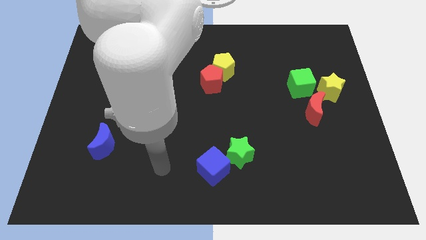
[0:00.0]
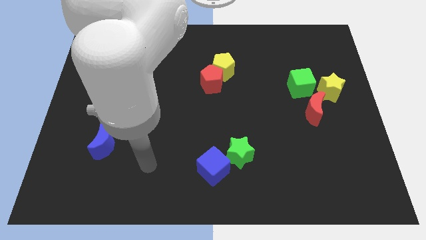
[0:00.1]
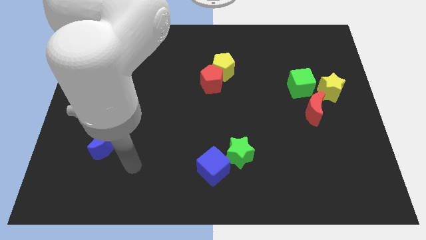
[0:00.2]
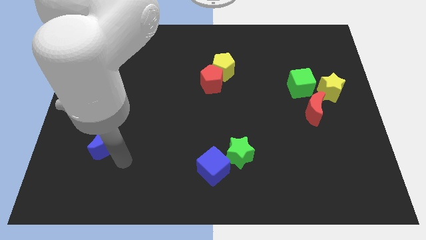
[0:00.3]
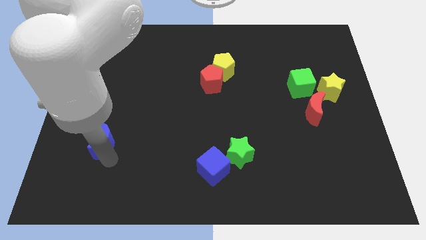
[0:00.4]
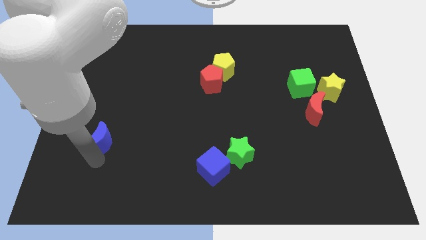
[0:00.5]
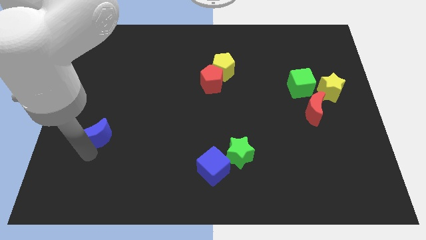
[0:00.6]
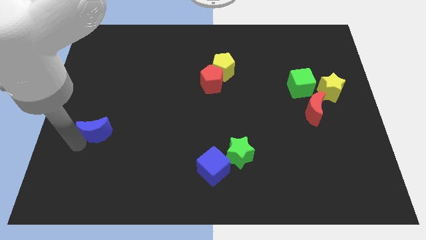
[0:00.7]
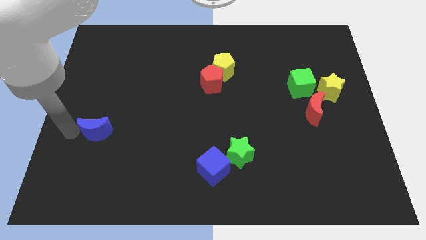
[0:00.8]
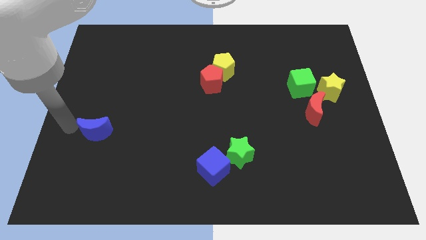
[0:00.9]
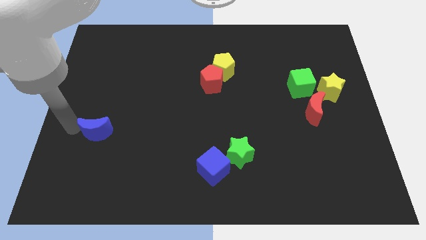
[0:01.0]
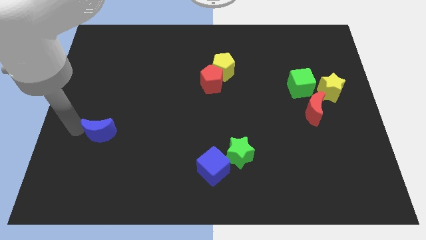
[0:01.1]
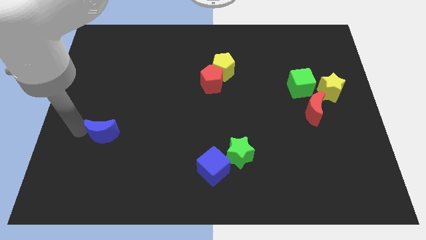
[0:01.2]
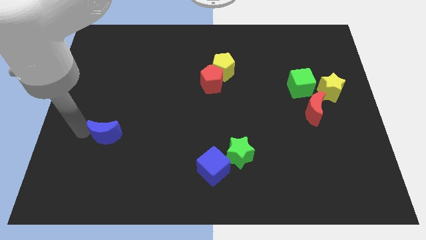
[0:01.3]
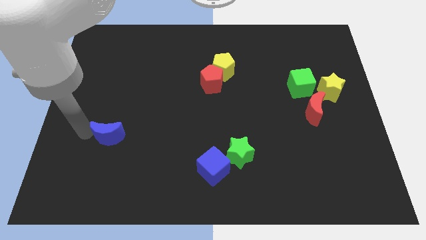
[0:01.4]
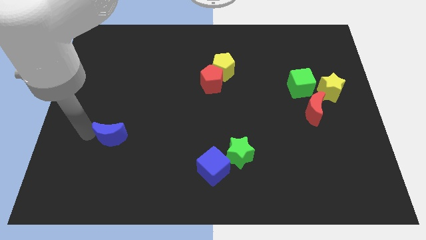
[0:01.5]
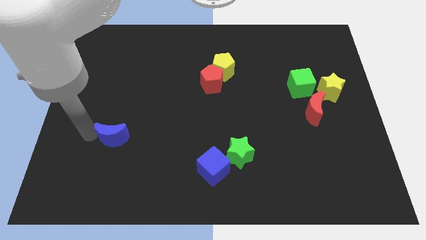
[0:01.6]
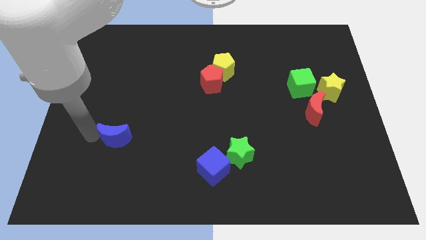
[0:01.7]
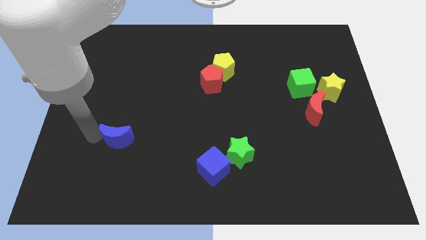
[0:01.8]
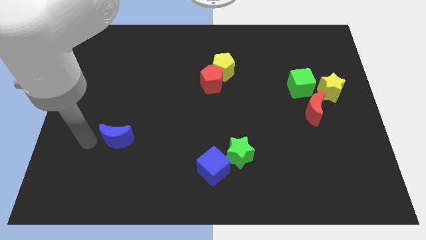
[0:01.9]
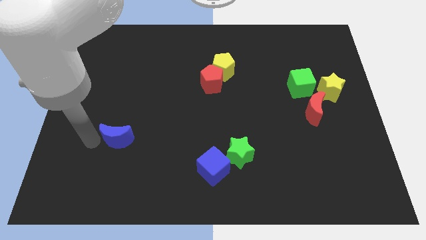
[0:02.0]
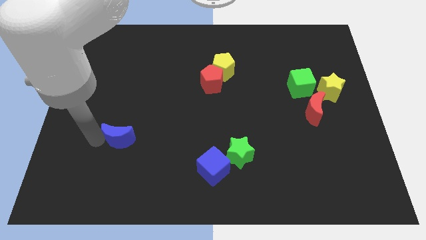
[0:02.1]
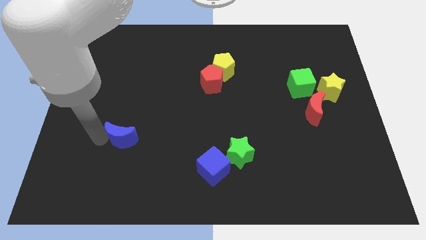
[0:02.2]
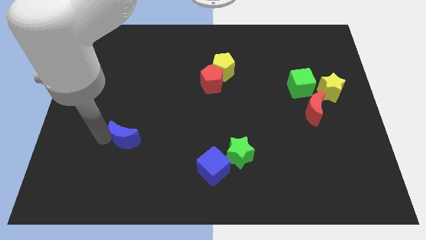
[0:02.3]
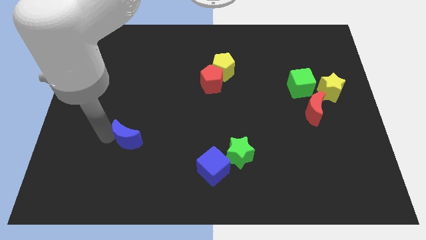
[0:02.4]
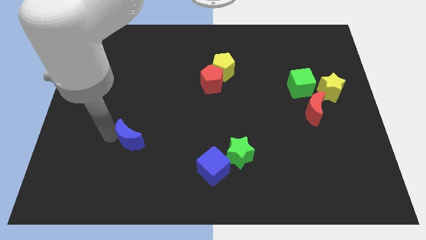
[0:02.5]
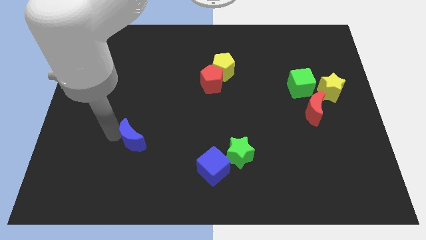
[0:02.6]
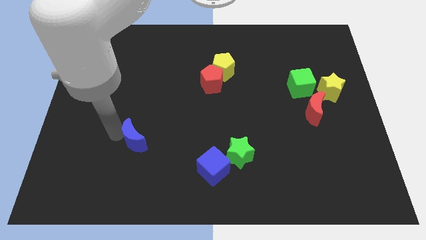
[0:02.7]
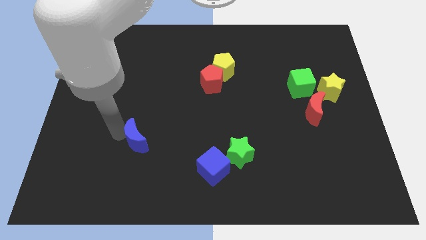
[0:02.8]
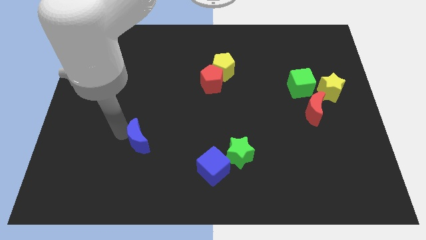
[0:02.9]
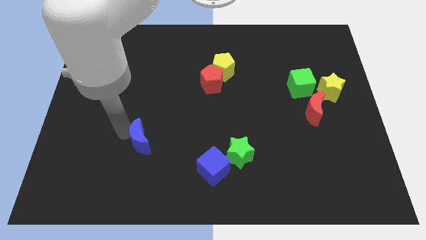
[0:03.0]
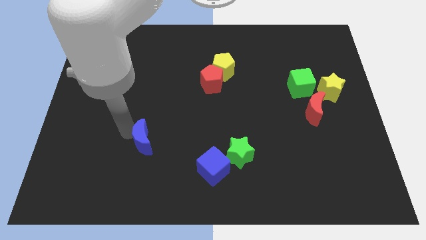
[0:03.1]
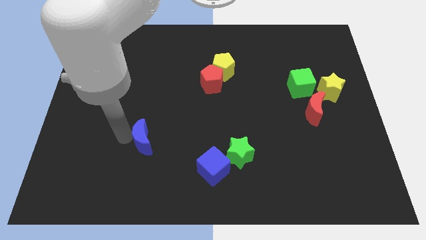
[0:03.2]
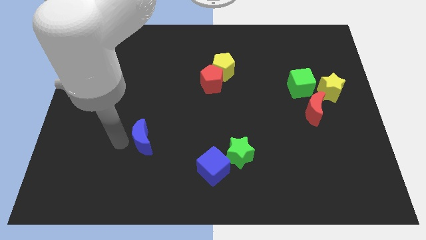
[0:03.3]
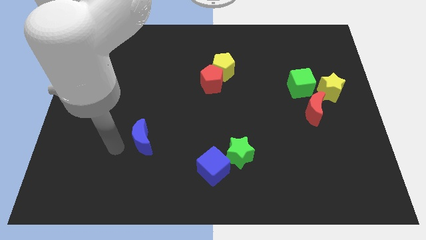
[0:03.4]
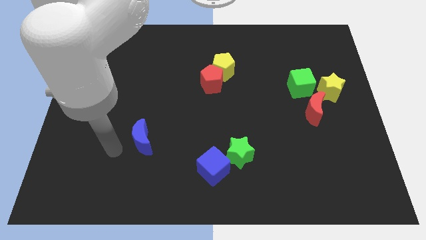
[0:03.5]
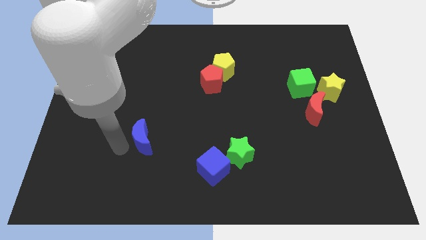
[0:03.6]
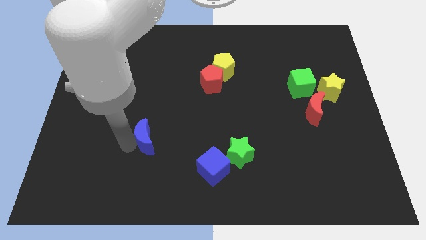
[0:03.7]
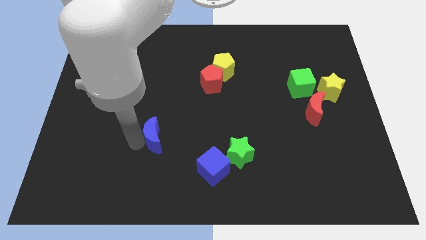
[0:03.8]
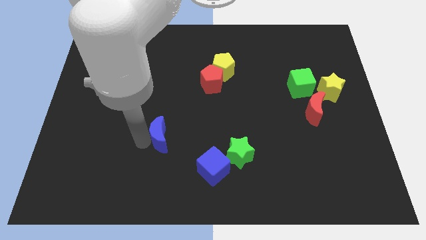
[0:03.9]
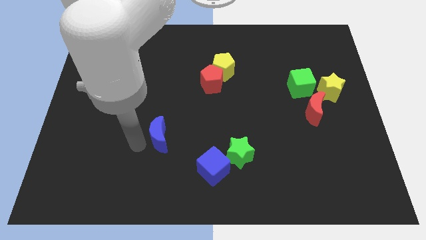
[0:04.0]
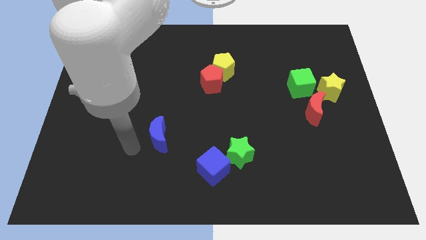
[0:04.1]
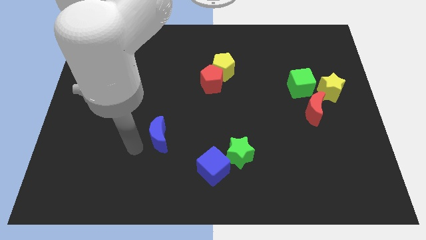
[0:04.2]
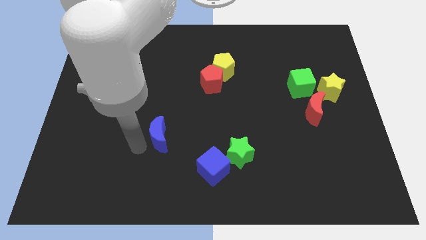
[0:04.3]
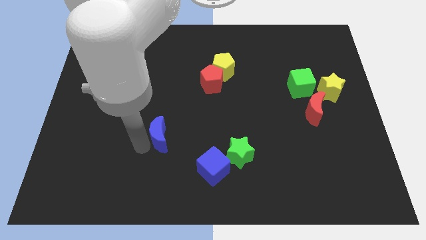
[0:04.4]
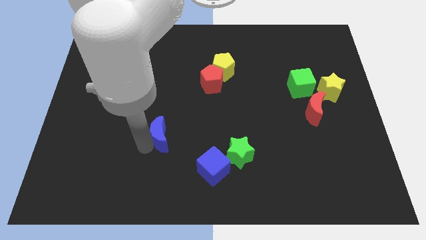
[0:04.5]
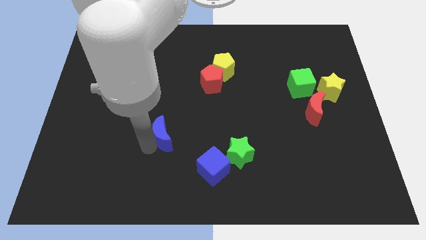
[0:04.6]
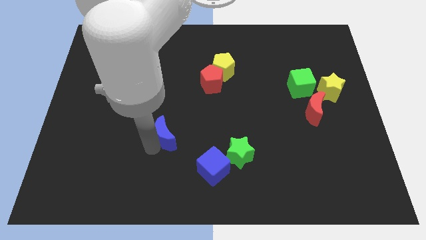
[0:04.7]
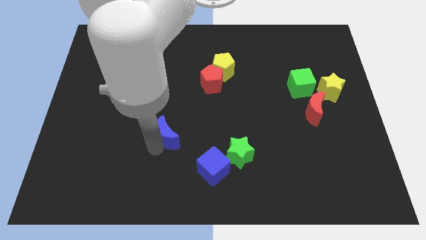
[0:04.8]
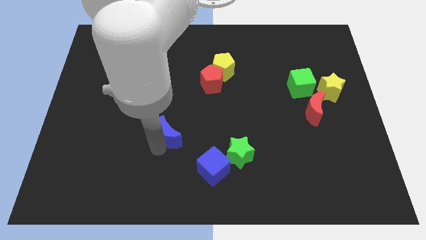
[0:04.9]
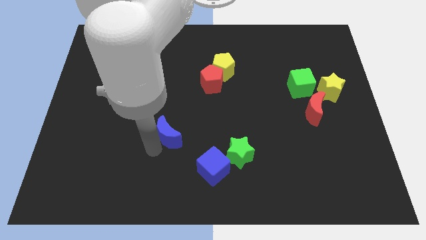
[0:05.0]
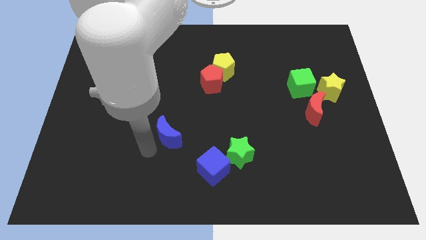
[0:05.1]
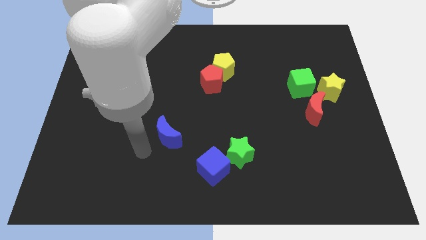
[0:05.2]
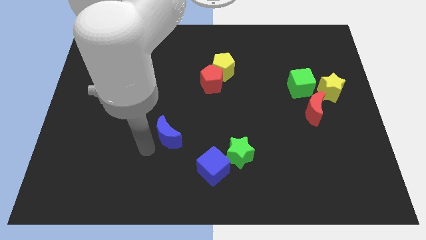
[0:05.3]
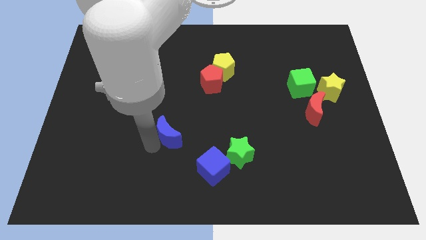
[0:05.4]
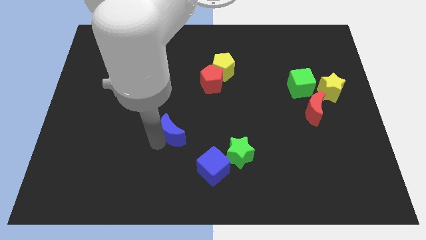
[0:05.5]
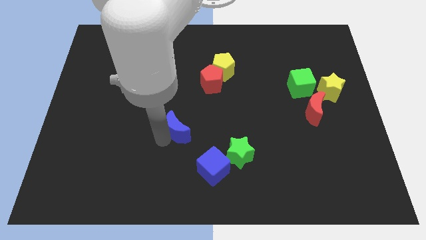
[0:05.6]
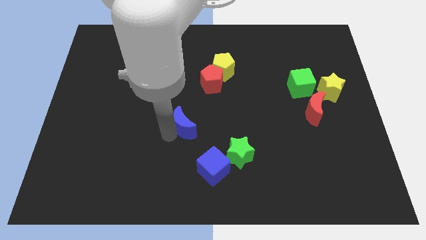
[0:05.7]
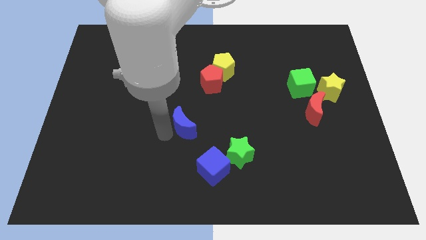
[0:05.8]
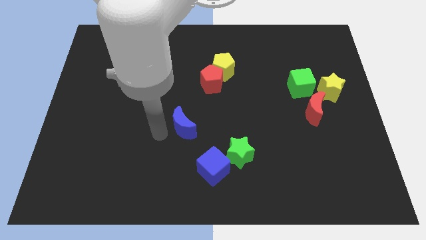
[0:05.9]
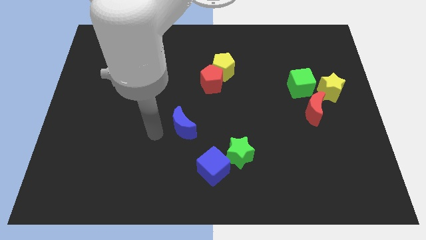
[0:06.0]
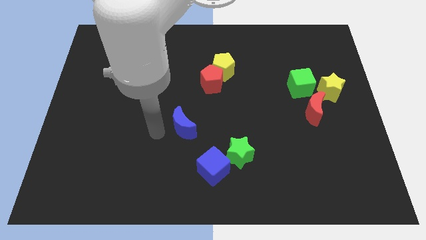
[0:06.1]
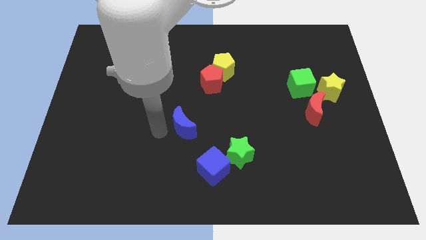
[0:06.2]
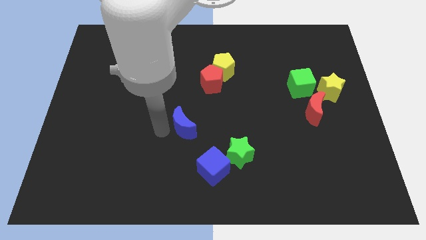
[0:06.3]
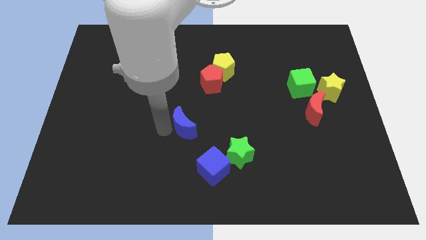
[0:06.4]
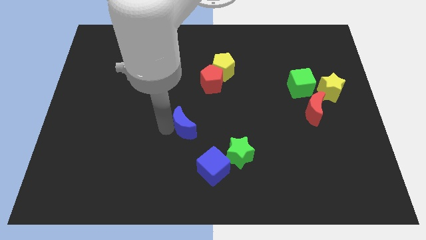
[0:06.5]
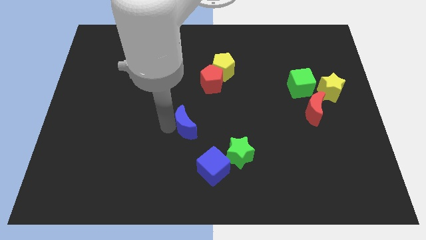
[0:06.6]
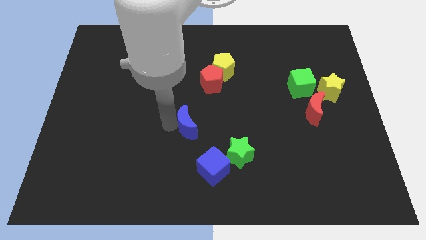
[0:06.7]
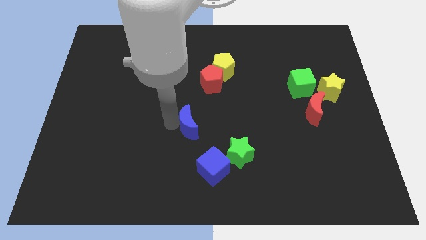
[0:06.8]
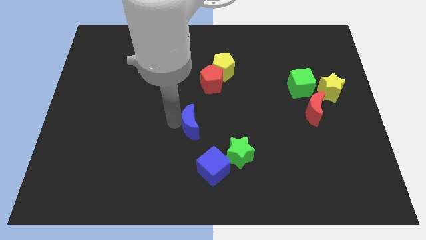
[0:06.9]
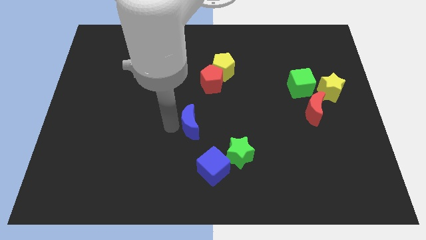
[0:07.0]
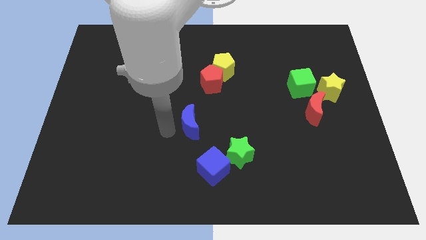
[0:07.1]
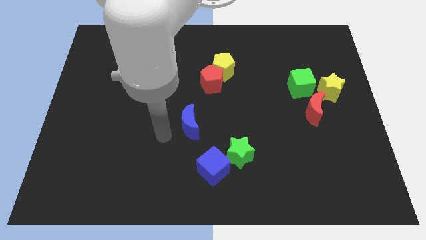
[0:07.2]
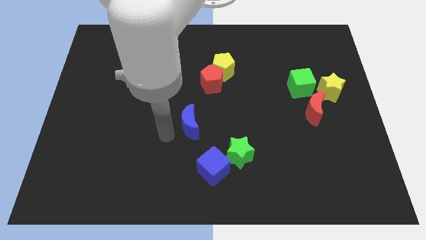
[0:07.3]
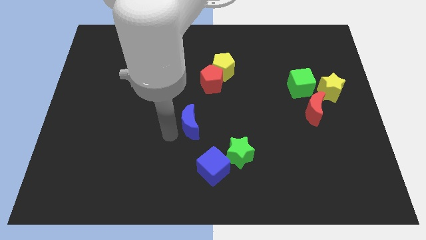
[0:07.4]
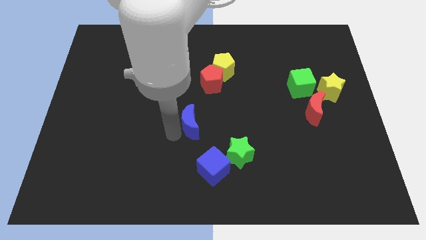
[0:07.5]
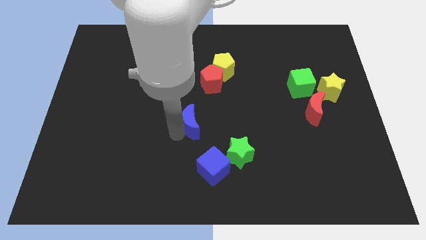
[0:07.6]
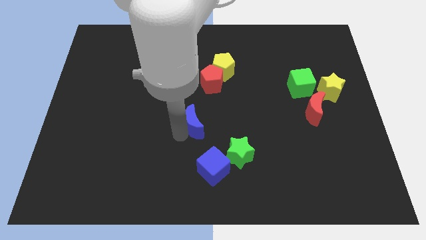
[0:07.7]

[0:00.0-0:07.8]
move the blue moon to the bottom side of the red pentagon
